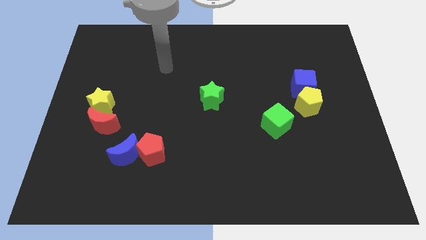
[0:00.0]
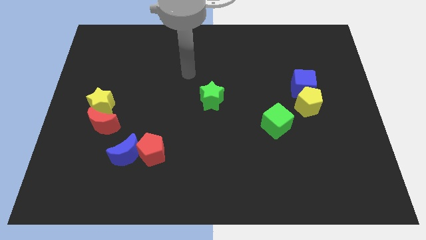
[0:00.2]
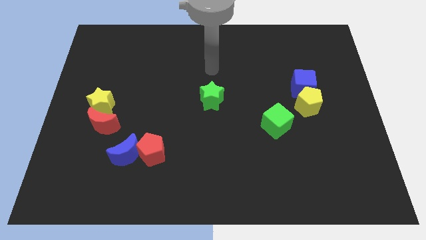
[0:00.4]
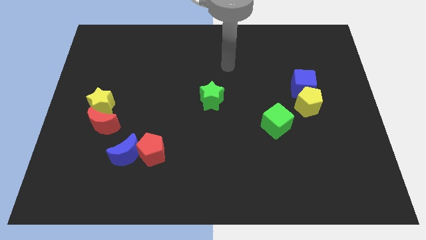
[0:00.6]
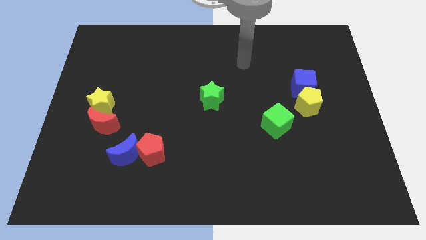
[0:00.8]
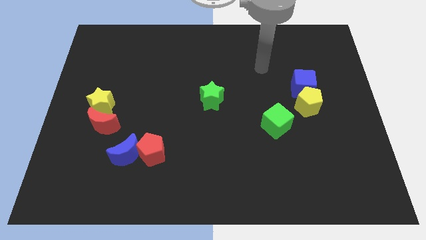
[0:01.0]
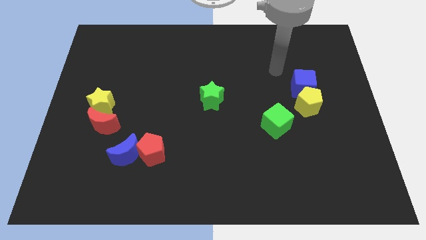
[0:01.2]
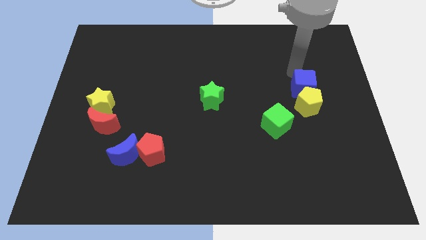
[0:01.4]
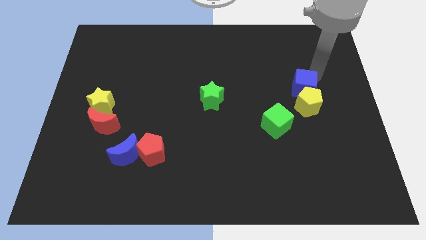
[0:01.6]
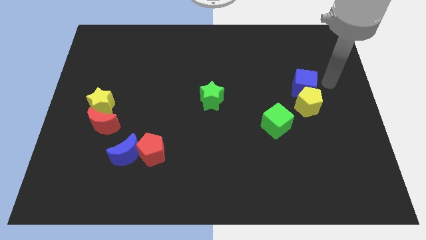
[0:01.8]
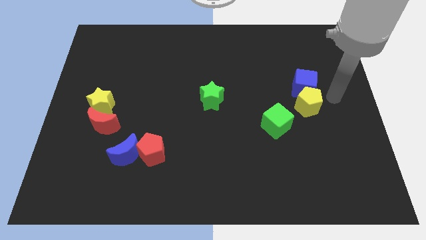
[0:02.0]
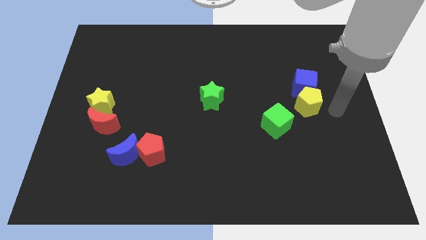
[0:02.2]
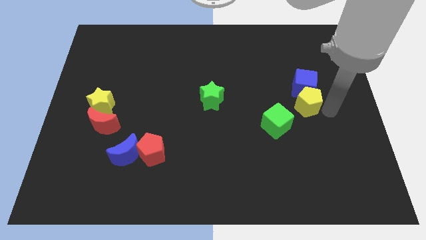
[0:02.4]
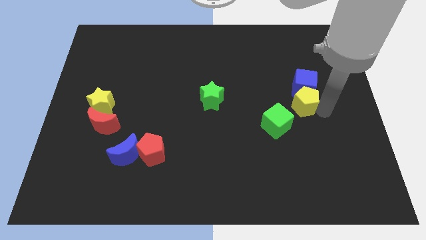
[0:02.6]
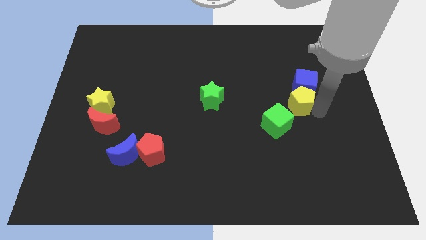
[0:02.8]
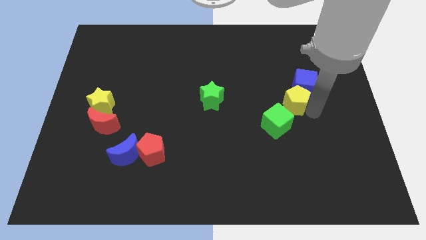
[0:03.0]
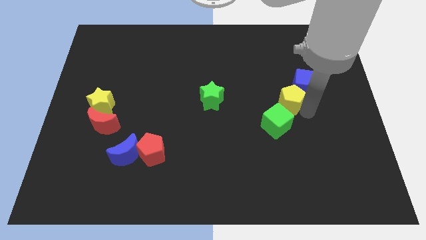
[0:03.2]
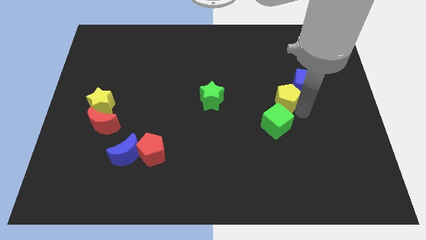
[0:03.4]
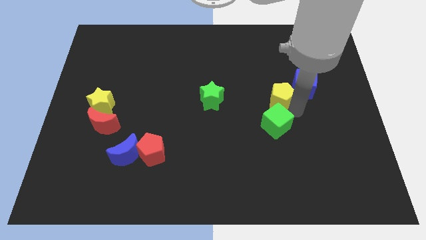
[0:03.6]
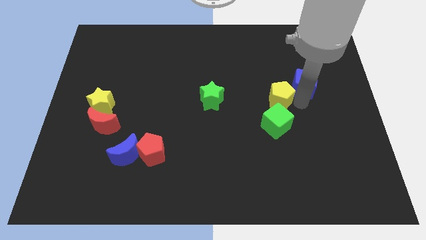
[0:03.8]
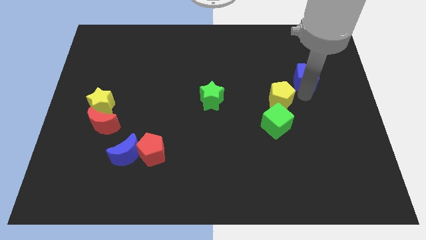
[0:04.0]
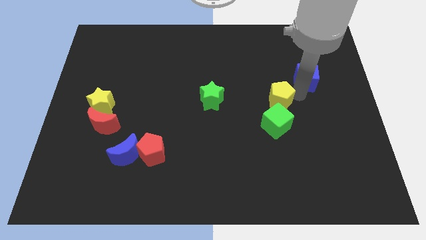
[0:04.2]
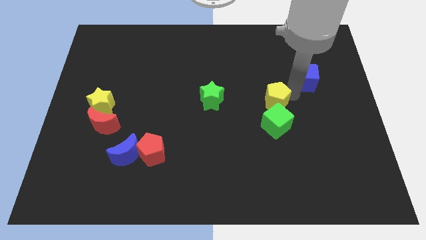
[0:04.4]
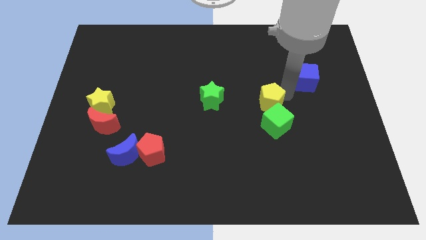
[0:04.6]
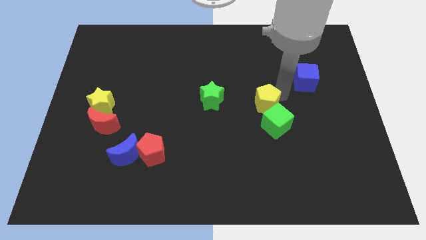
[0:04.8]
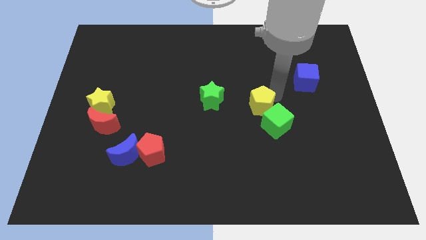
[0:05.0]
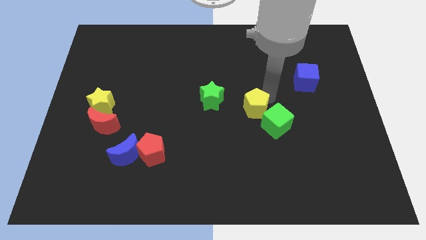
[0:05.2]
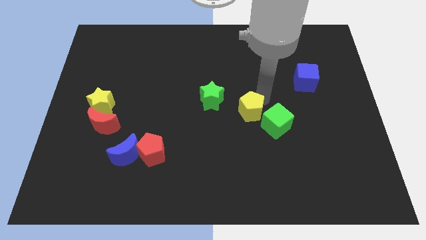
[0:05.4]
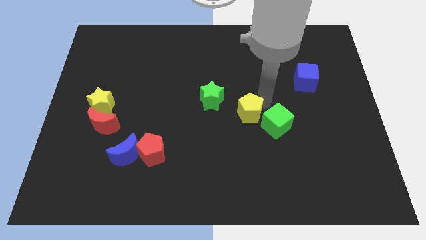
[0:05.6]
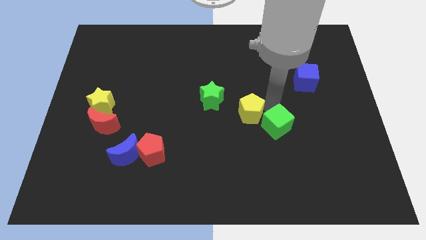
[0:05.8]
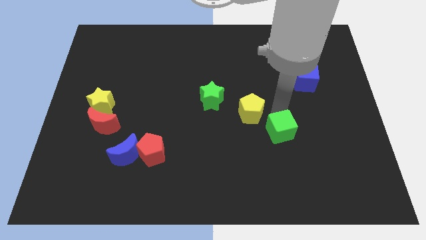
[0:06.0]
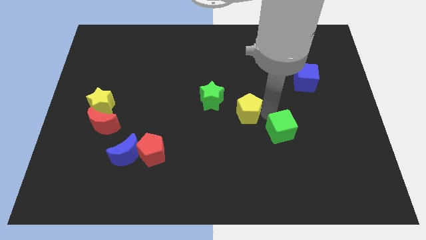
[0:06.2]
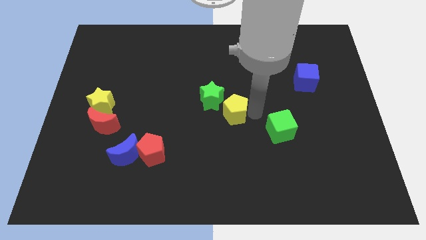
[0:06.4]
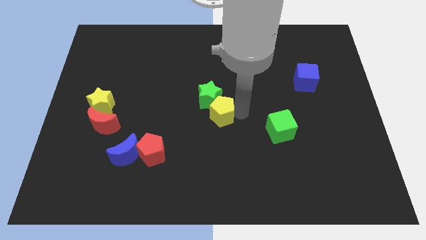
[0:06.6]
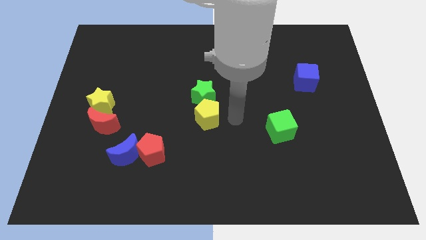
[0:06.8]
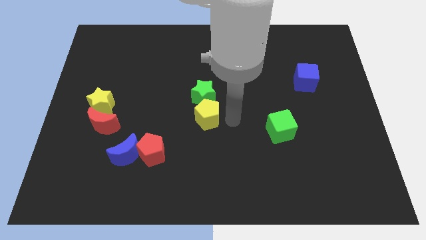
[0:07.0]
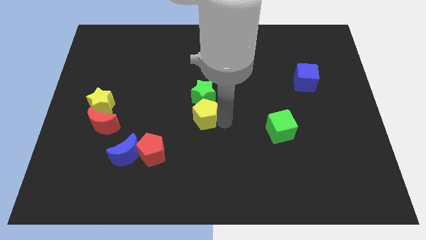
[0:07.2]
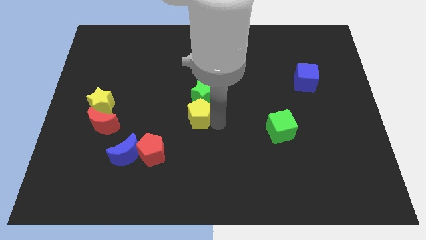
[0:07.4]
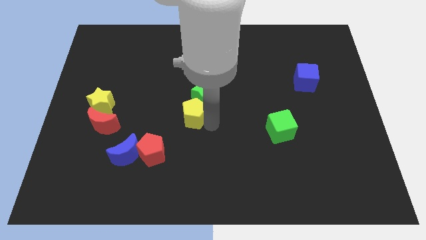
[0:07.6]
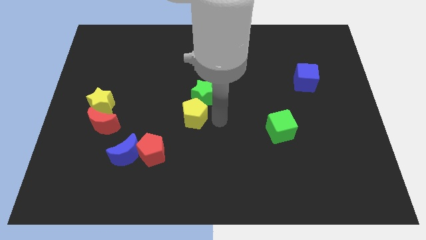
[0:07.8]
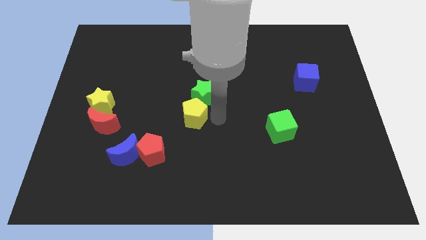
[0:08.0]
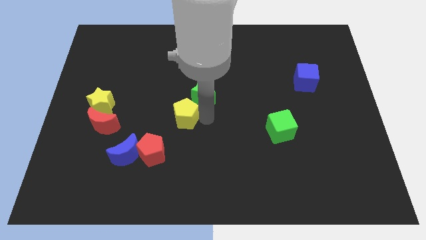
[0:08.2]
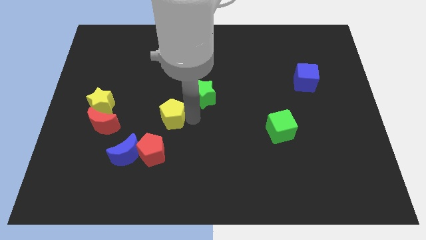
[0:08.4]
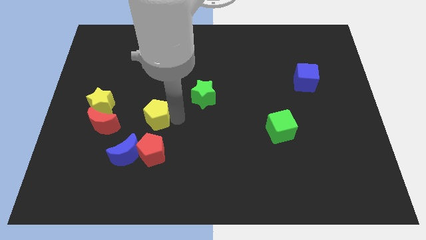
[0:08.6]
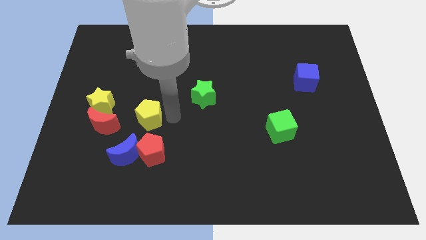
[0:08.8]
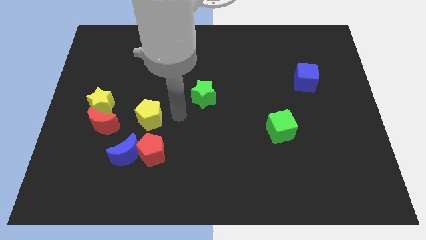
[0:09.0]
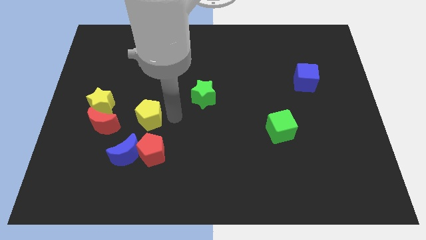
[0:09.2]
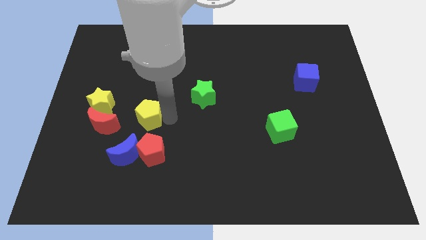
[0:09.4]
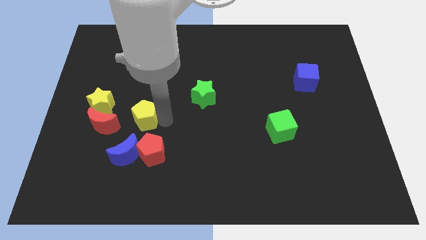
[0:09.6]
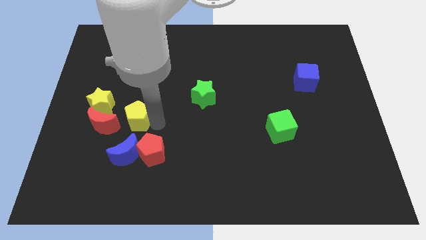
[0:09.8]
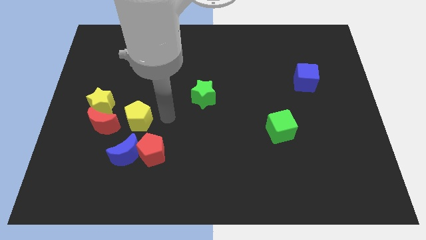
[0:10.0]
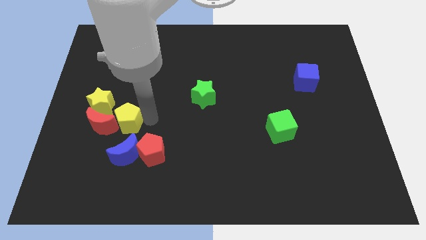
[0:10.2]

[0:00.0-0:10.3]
put the yellow pentagon next to the red moon

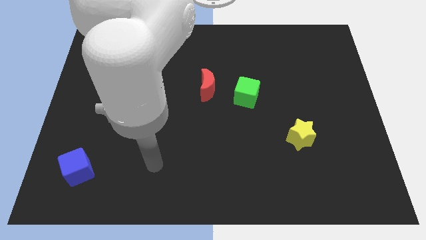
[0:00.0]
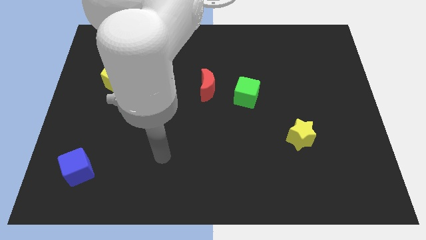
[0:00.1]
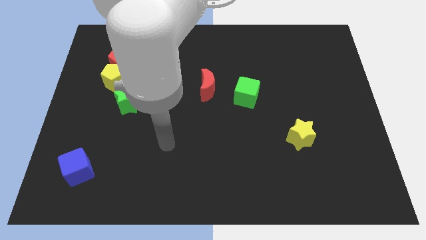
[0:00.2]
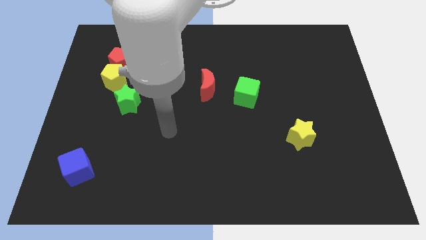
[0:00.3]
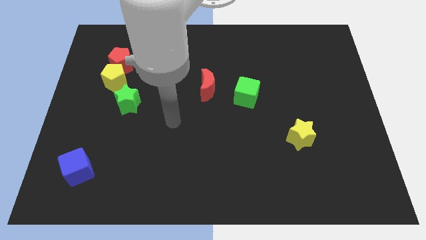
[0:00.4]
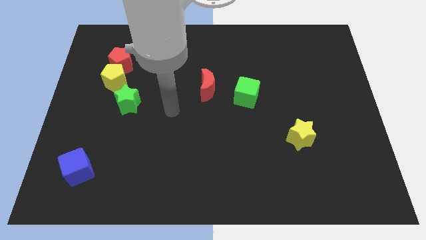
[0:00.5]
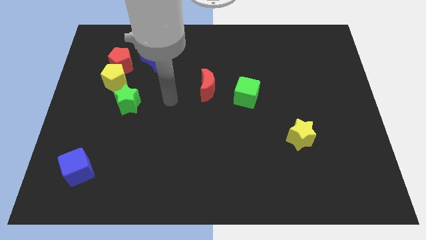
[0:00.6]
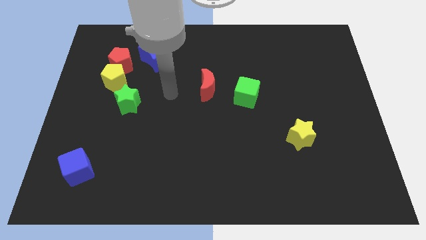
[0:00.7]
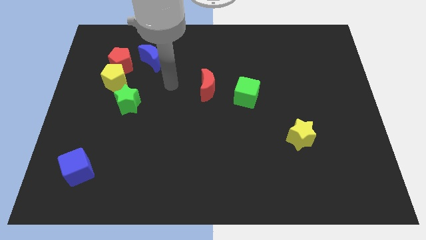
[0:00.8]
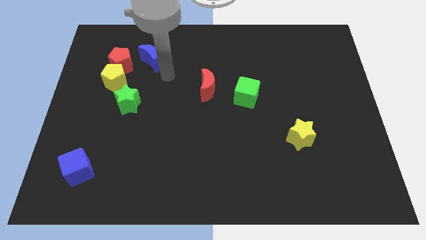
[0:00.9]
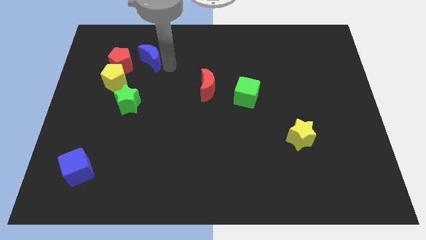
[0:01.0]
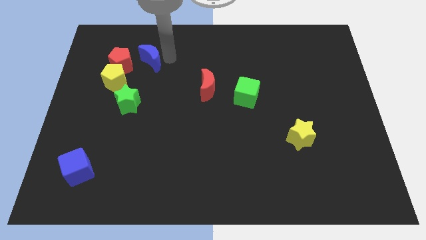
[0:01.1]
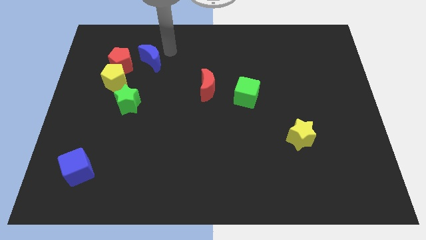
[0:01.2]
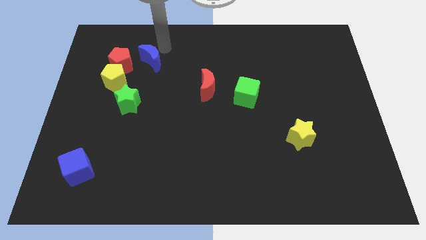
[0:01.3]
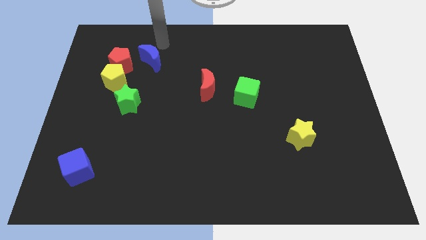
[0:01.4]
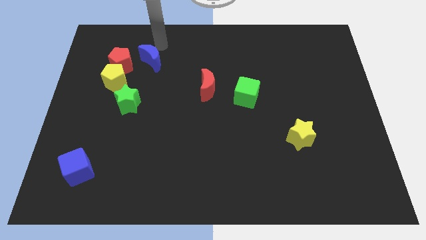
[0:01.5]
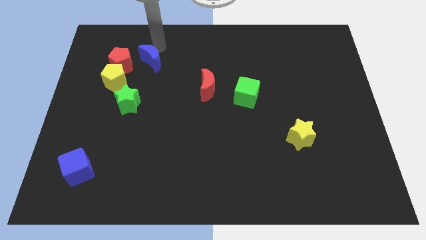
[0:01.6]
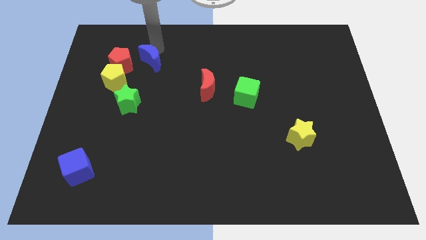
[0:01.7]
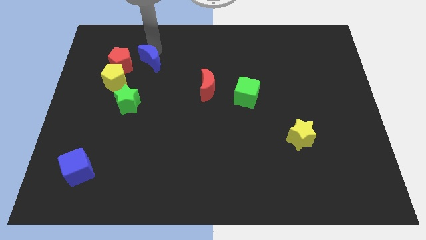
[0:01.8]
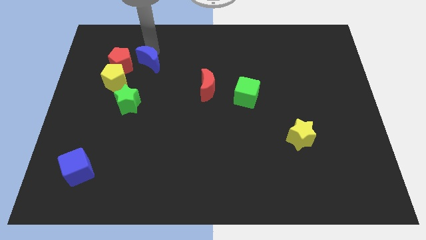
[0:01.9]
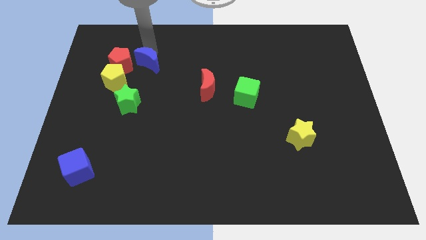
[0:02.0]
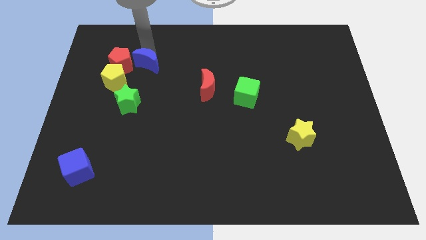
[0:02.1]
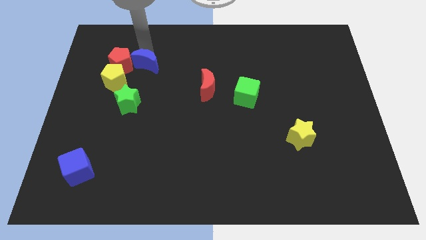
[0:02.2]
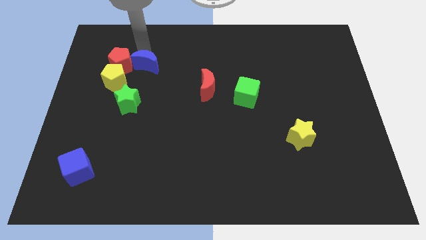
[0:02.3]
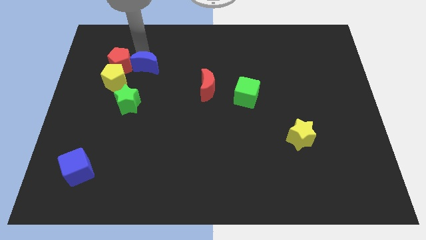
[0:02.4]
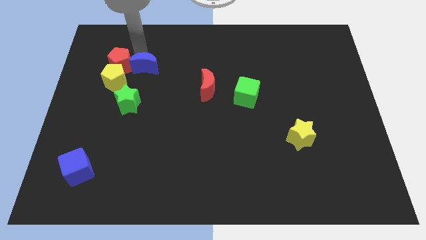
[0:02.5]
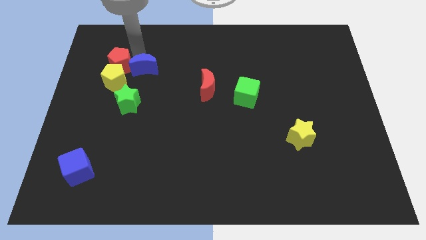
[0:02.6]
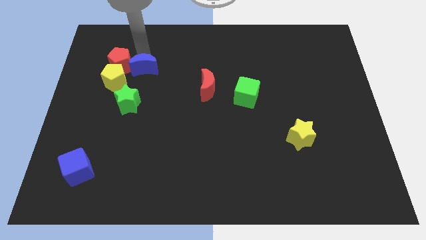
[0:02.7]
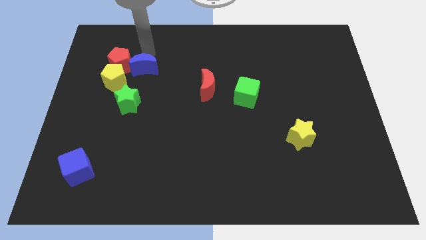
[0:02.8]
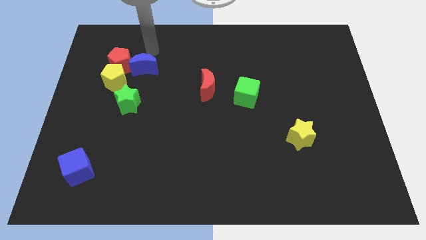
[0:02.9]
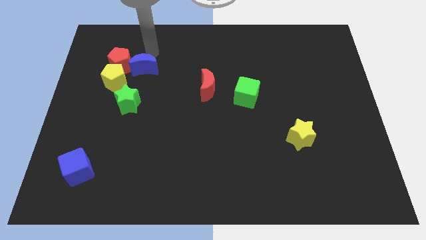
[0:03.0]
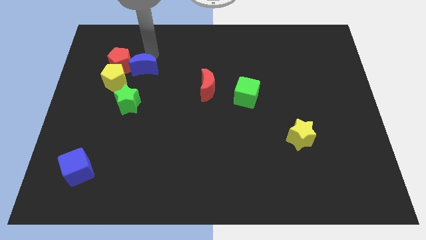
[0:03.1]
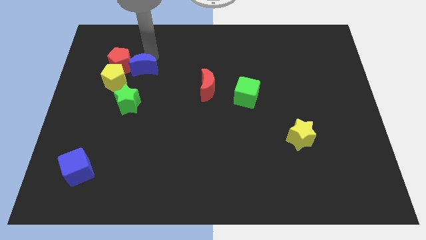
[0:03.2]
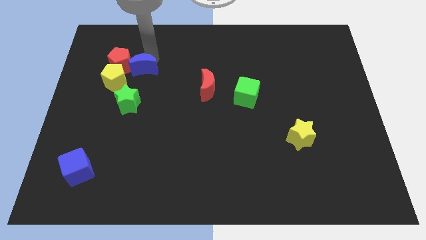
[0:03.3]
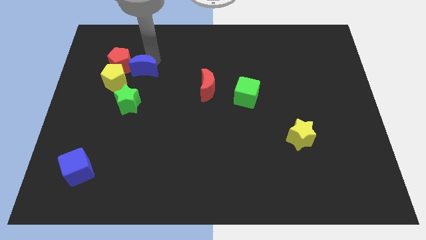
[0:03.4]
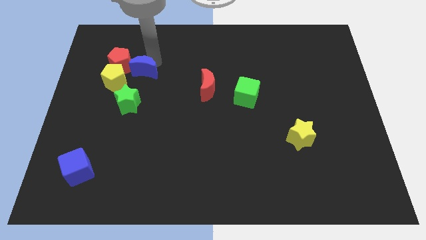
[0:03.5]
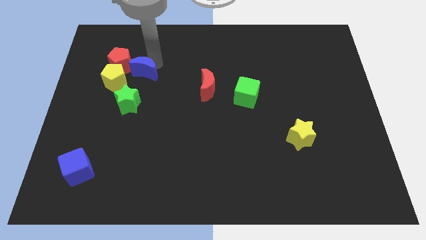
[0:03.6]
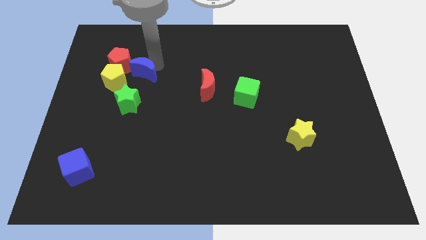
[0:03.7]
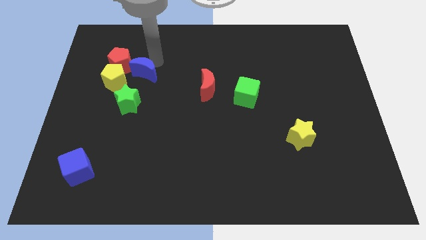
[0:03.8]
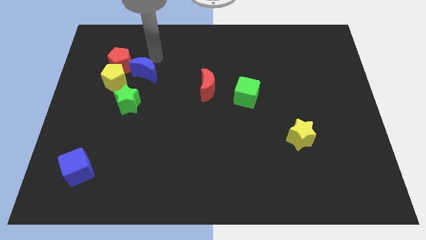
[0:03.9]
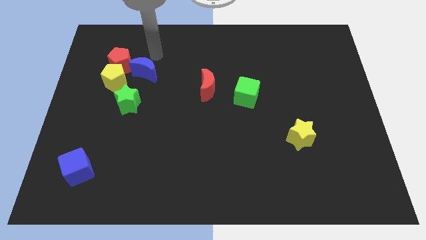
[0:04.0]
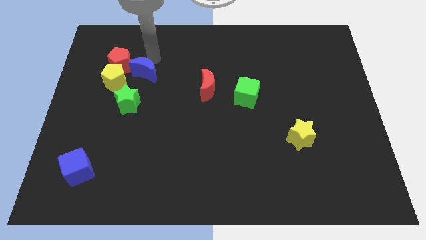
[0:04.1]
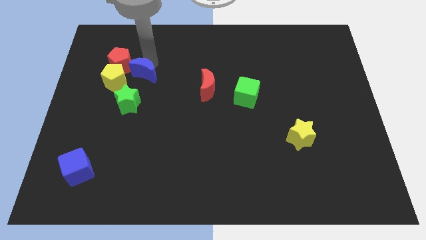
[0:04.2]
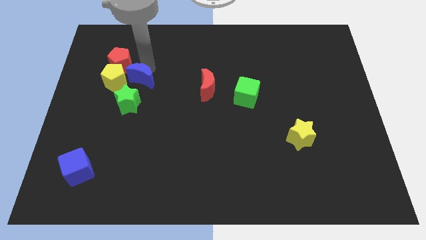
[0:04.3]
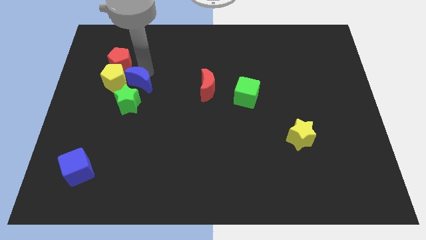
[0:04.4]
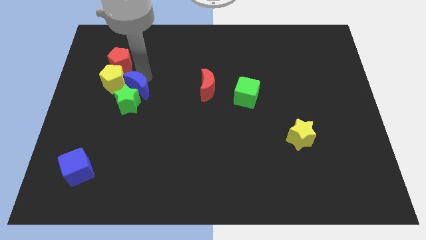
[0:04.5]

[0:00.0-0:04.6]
slide the blue moon to the green star
